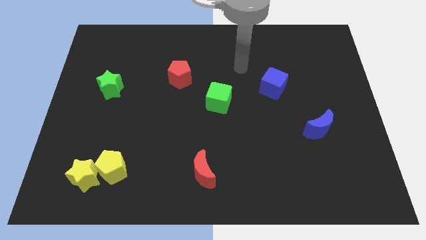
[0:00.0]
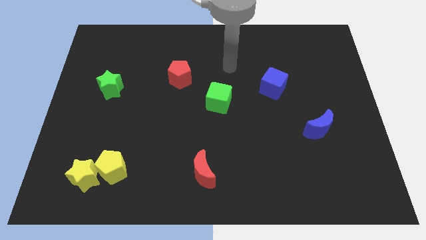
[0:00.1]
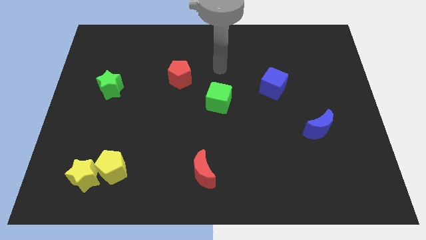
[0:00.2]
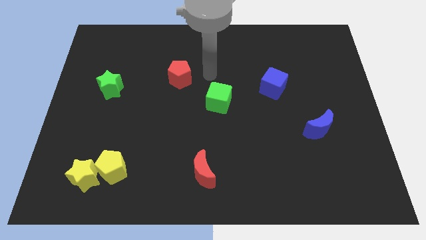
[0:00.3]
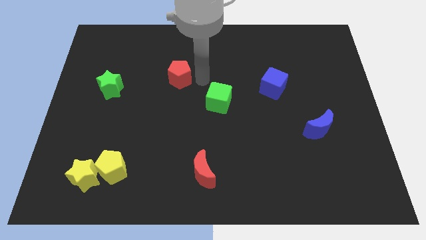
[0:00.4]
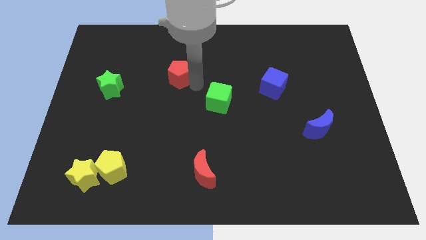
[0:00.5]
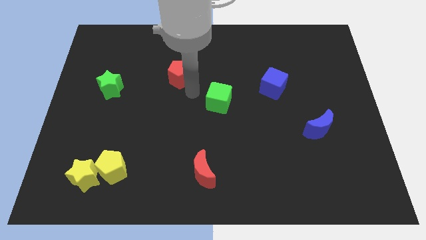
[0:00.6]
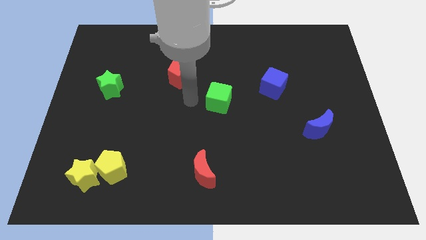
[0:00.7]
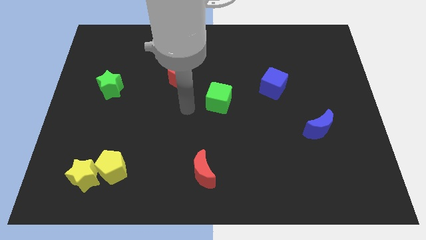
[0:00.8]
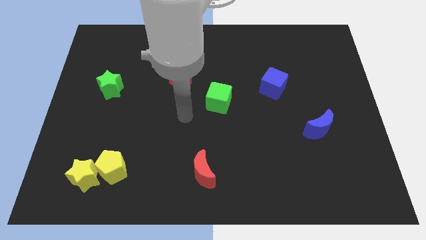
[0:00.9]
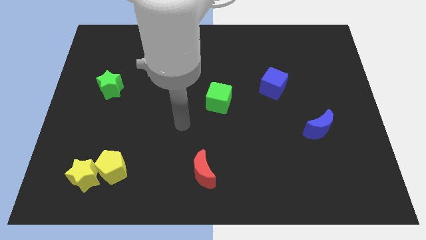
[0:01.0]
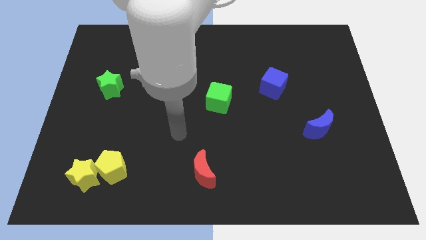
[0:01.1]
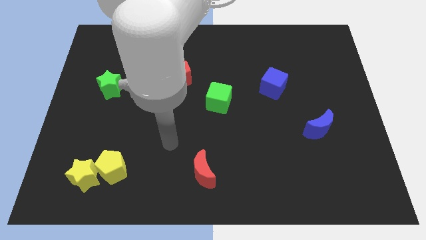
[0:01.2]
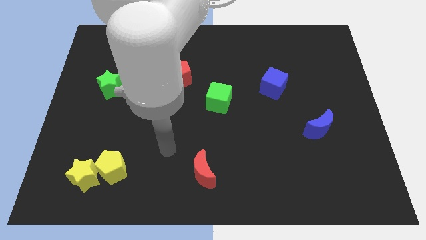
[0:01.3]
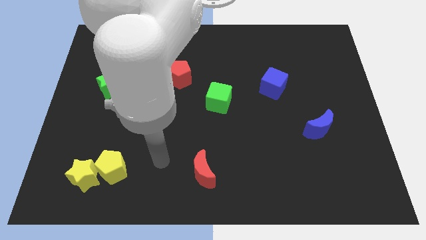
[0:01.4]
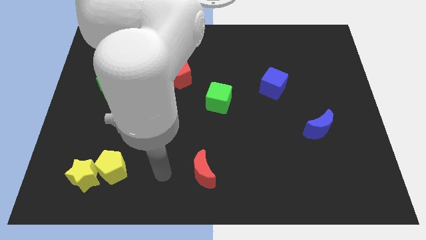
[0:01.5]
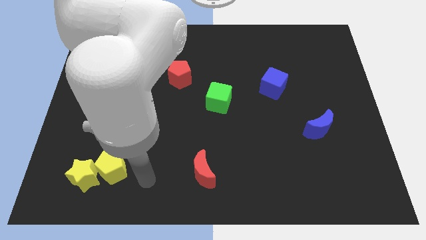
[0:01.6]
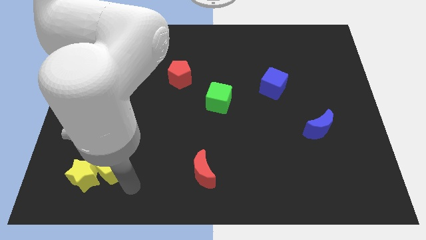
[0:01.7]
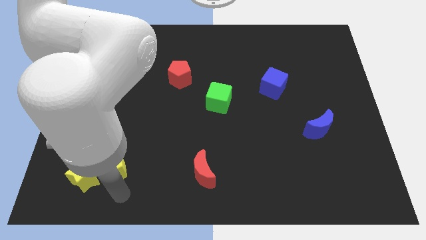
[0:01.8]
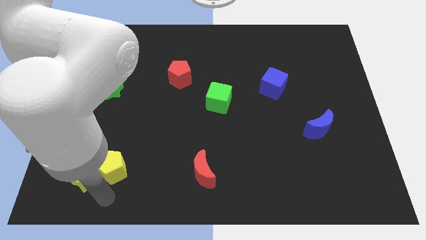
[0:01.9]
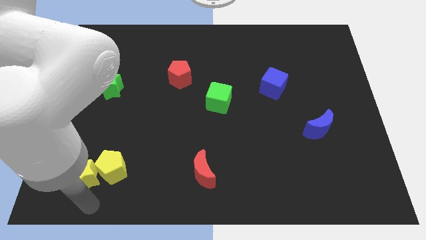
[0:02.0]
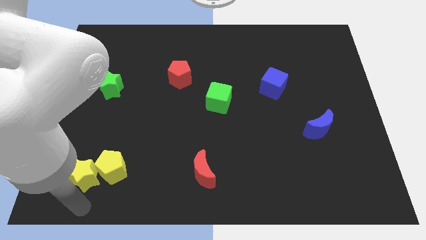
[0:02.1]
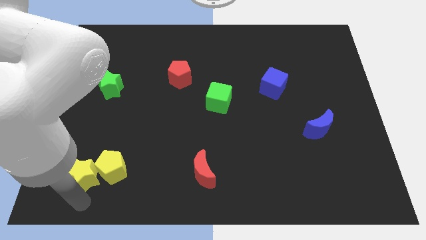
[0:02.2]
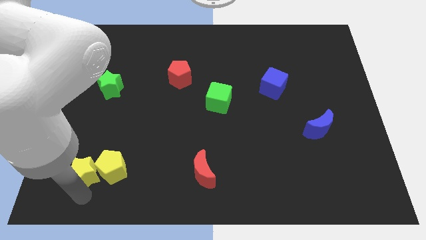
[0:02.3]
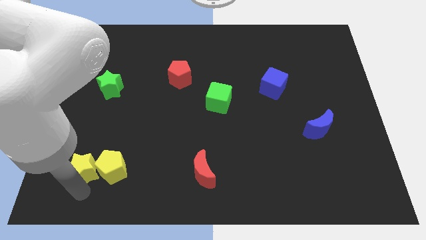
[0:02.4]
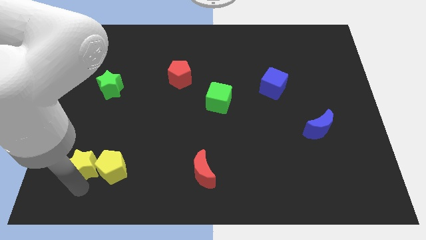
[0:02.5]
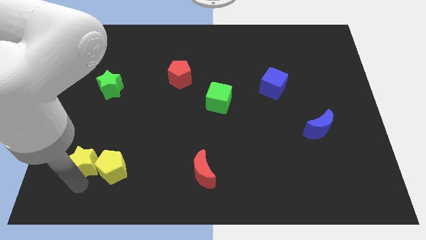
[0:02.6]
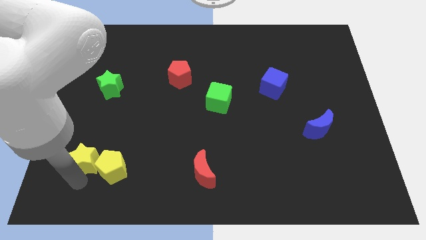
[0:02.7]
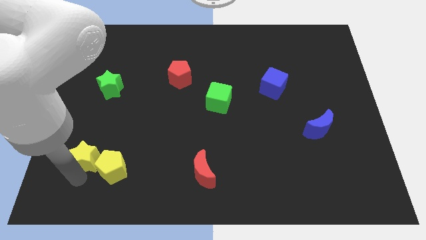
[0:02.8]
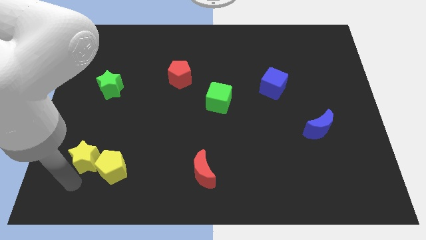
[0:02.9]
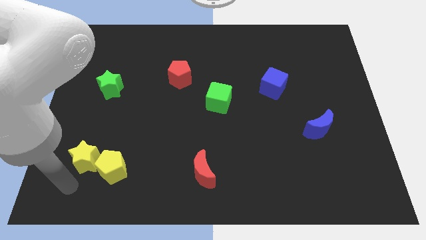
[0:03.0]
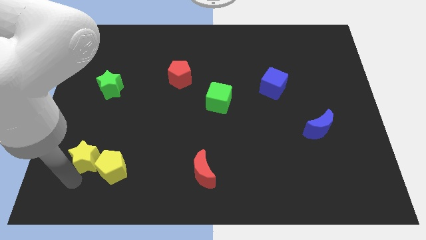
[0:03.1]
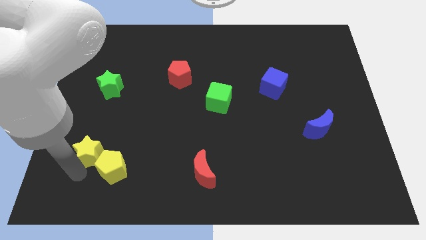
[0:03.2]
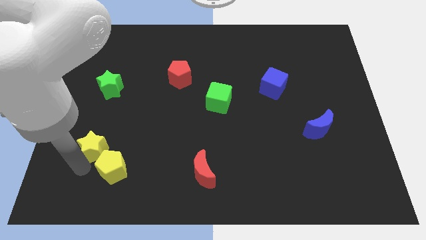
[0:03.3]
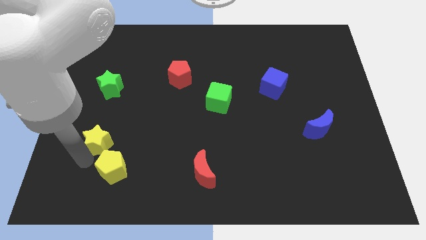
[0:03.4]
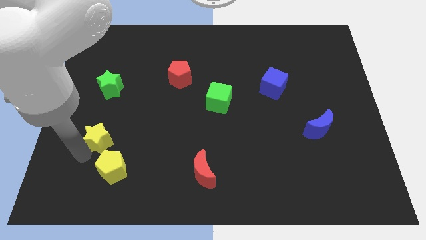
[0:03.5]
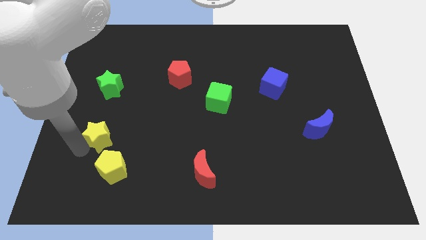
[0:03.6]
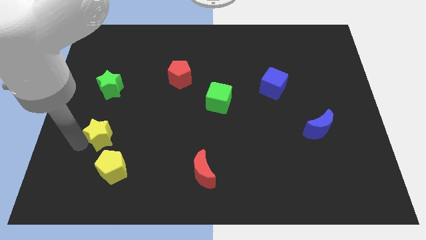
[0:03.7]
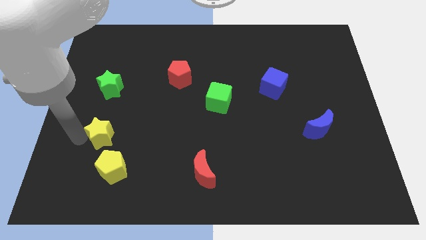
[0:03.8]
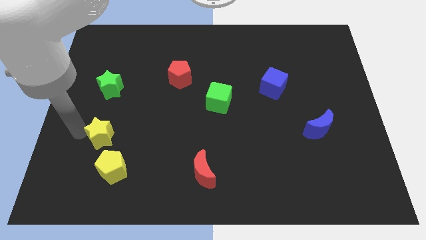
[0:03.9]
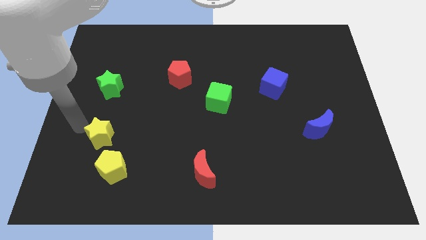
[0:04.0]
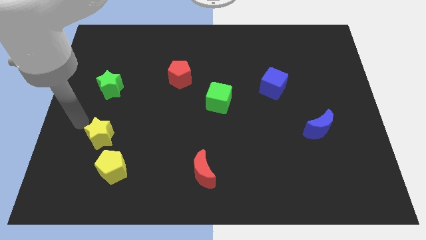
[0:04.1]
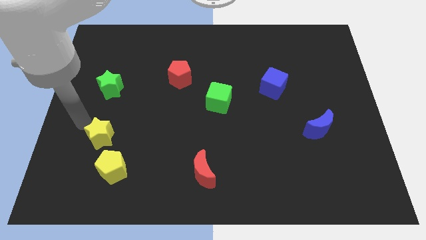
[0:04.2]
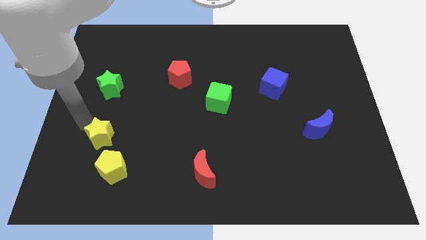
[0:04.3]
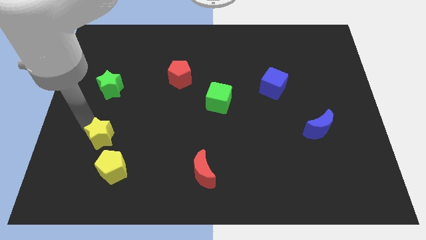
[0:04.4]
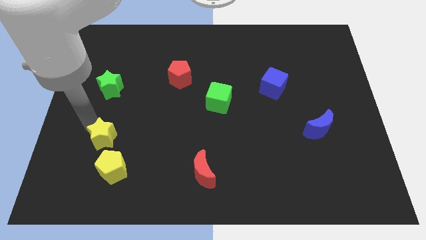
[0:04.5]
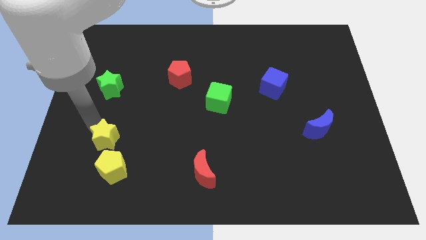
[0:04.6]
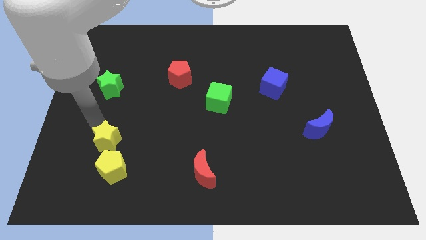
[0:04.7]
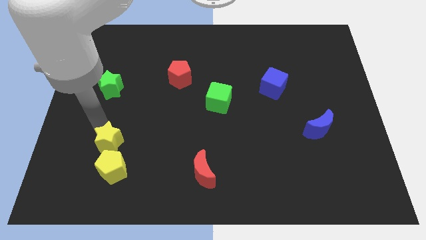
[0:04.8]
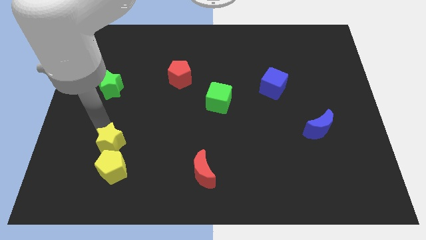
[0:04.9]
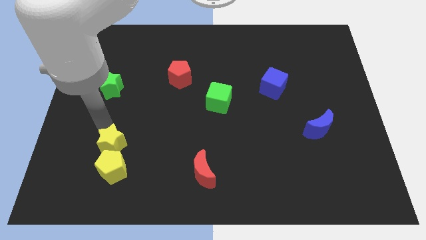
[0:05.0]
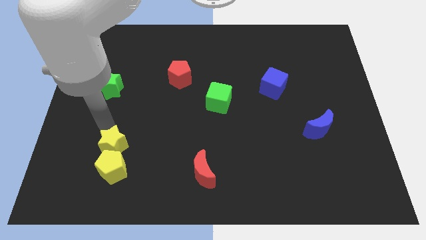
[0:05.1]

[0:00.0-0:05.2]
put the yellow star diagonally up and to the right of the yellow pentagon
